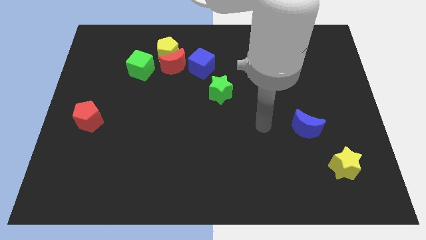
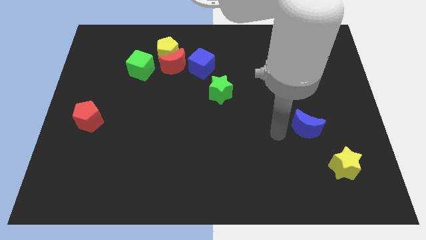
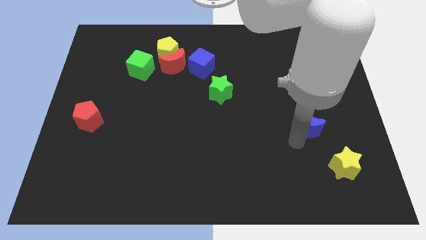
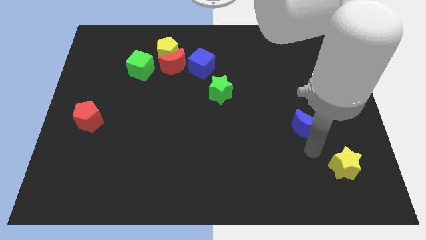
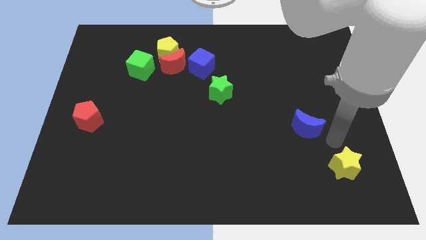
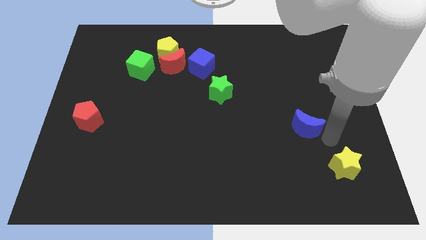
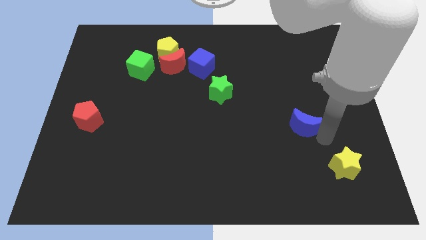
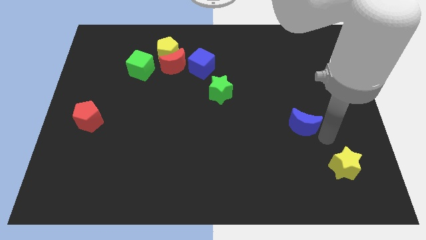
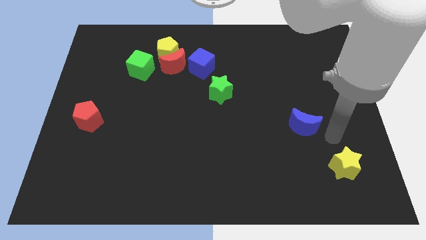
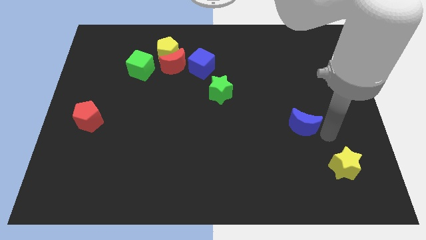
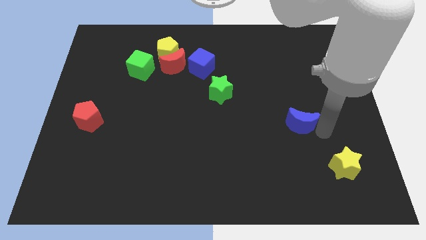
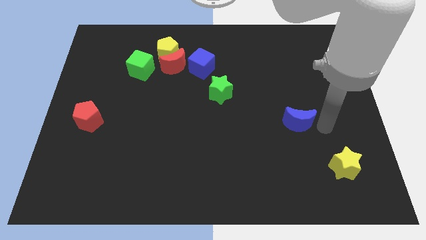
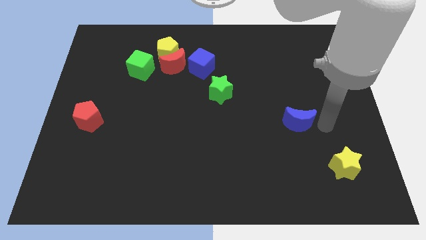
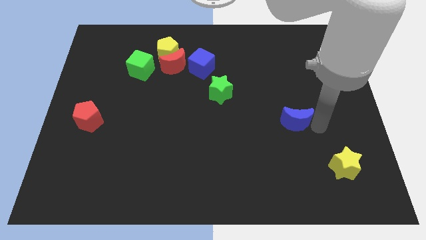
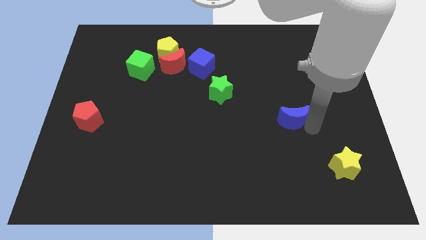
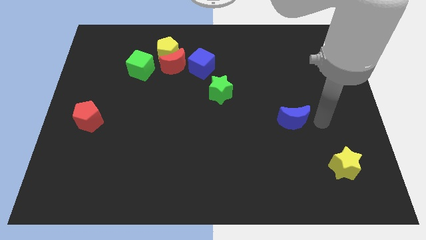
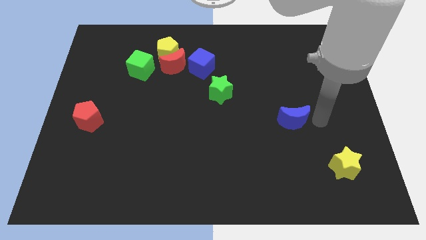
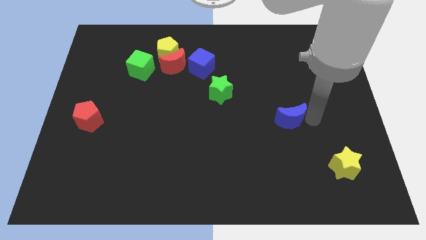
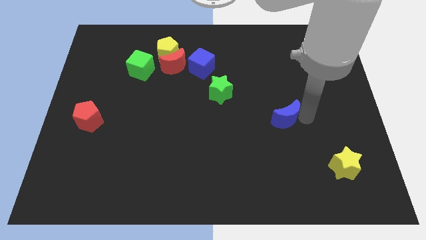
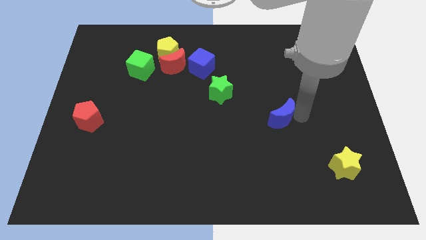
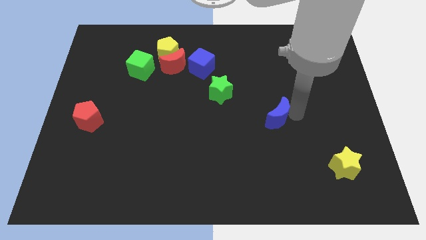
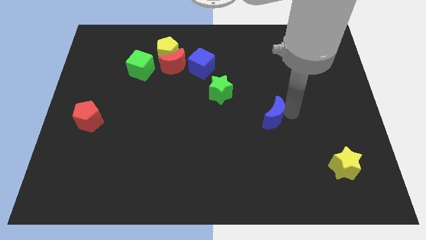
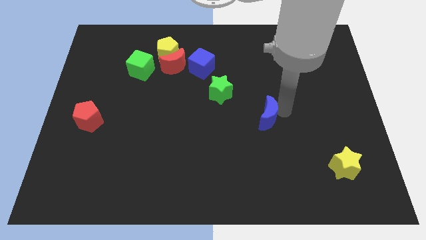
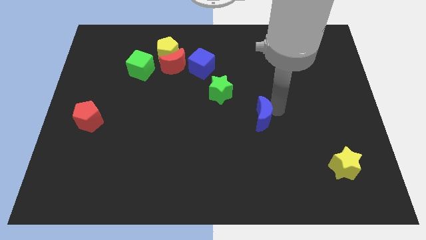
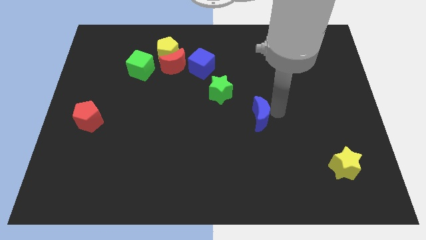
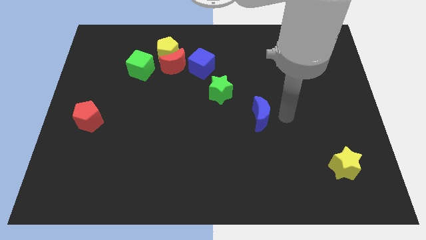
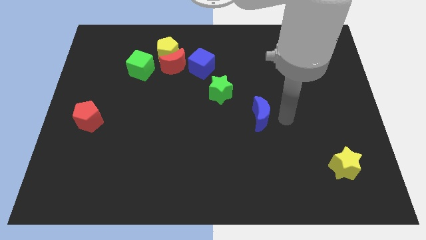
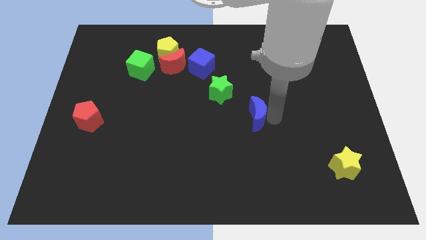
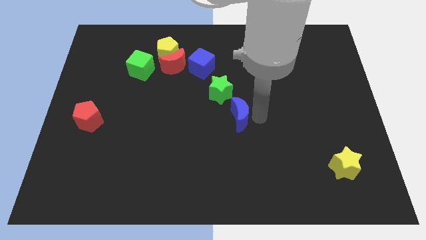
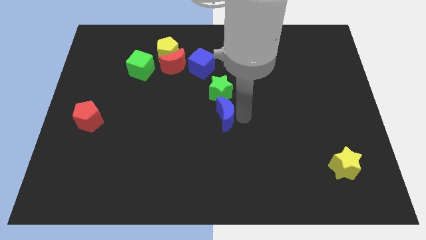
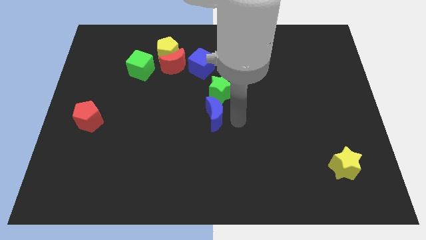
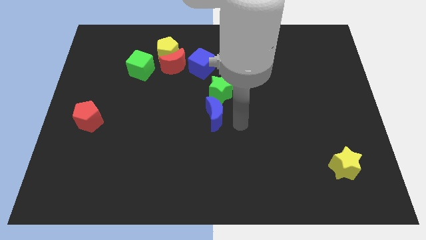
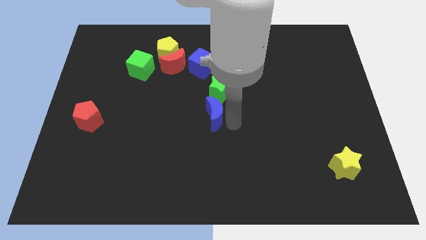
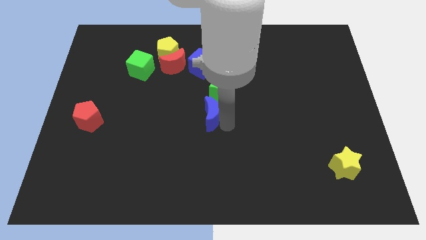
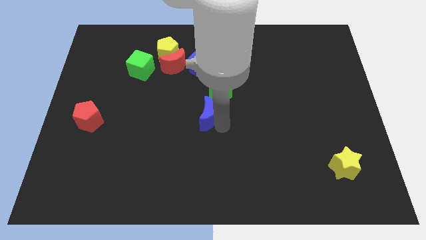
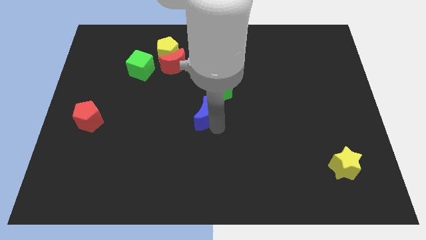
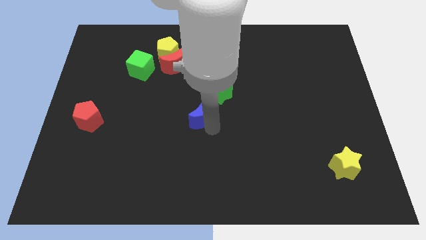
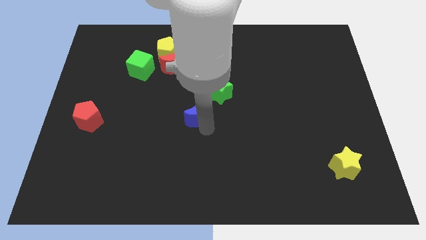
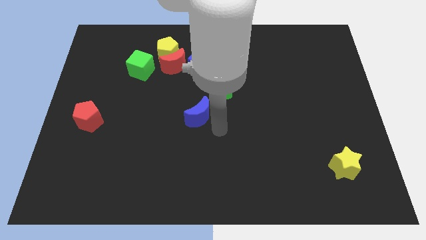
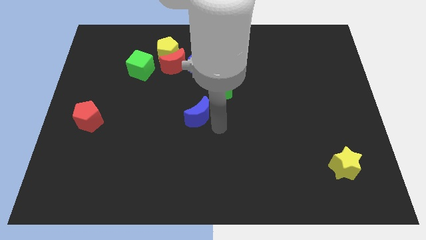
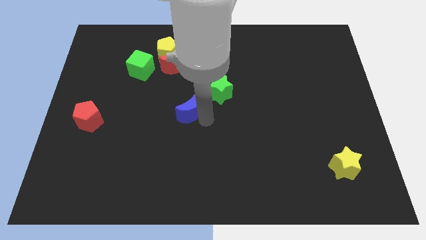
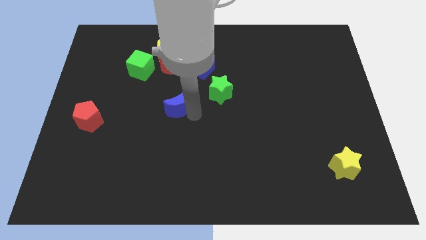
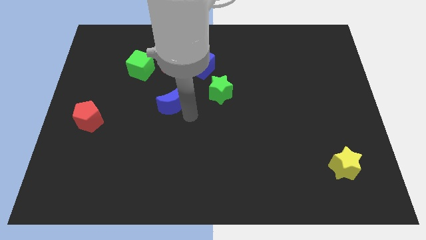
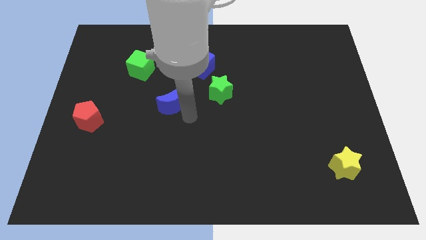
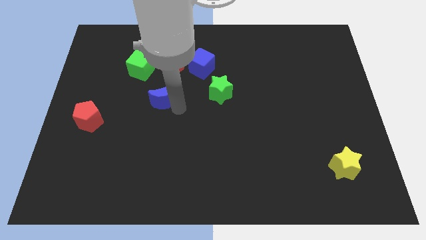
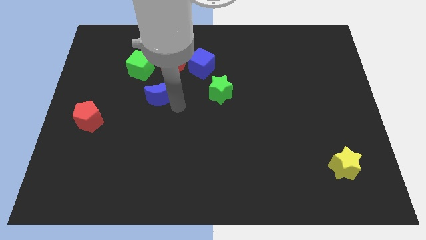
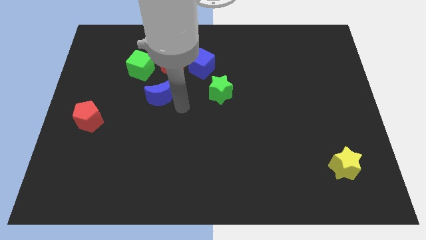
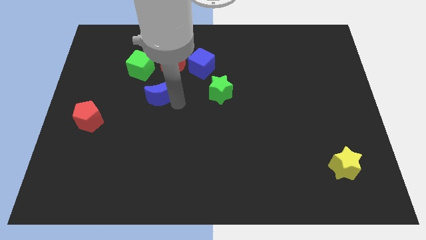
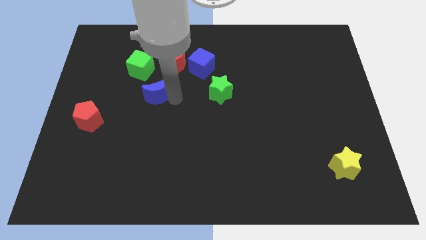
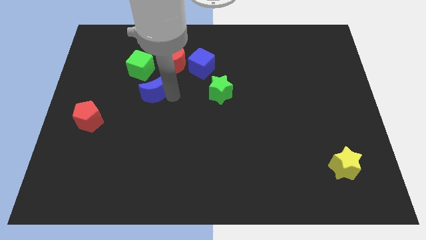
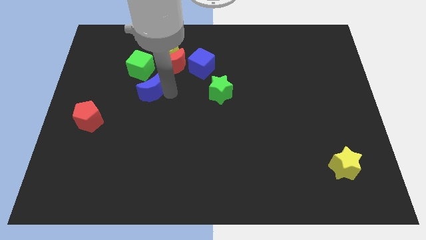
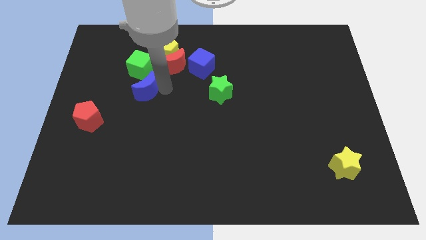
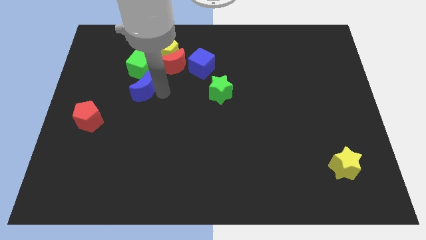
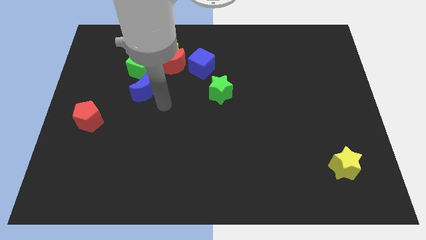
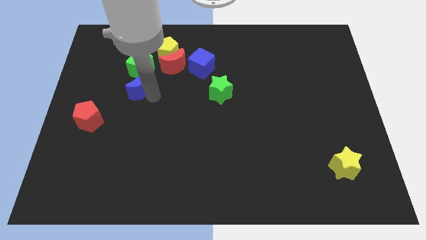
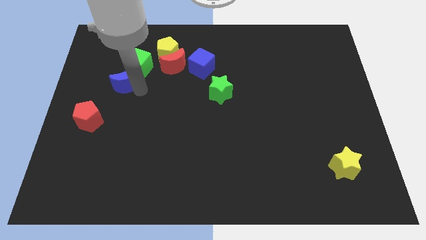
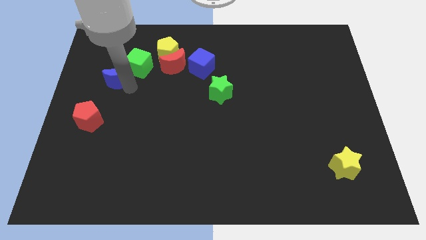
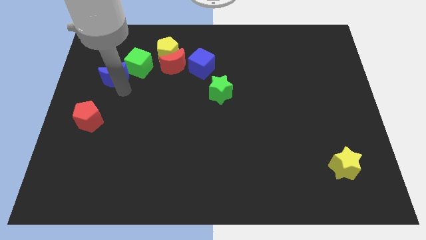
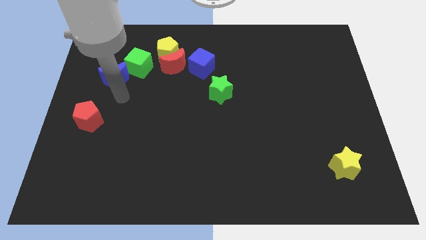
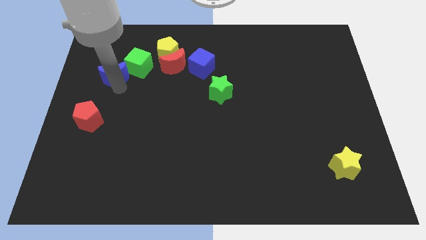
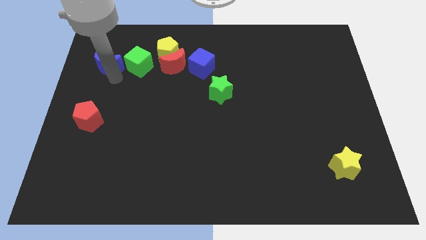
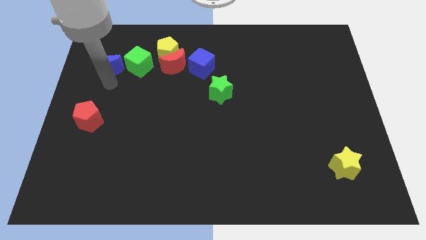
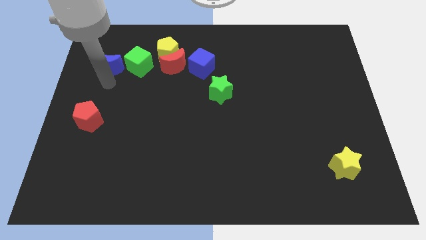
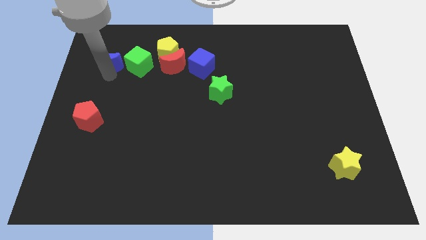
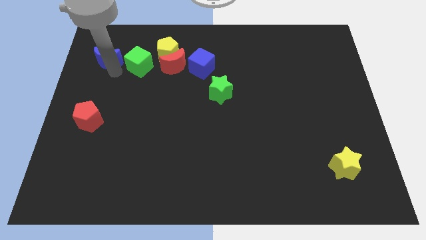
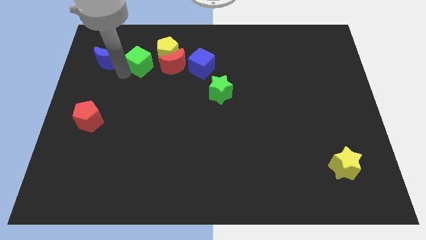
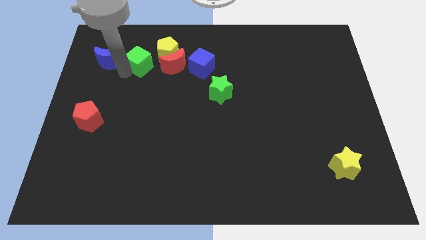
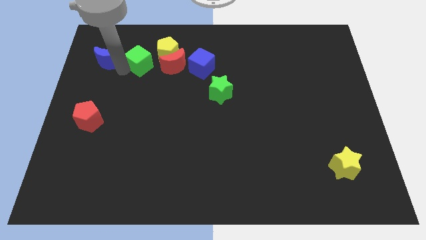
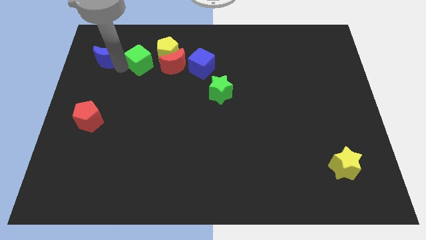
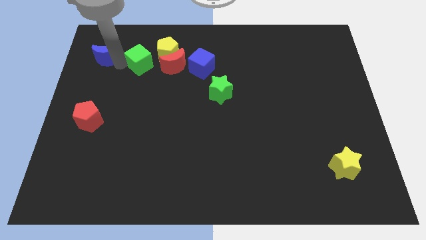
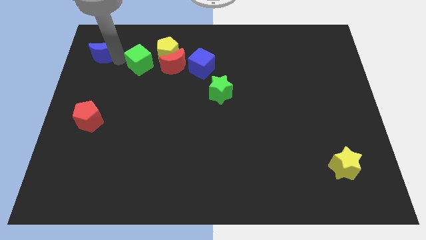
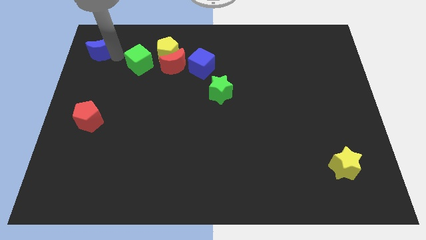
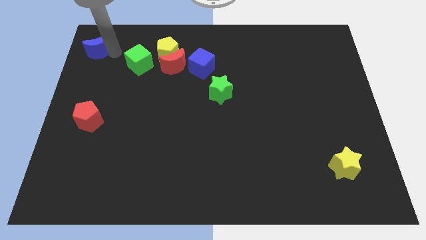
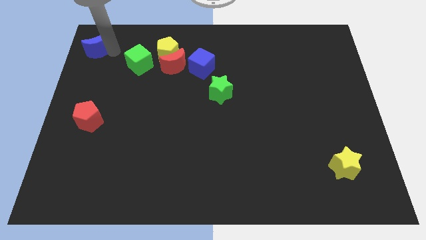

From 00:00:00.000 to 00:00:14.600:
move the blue moon to the upper left corner
